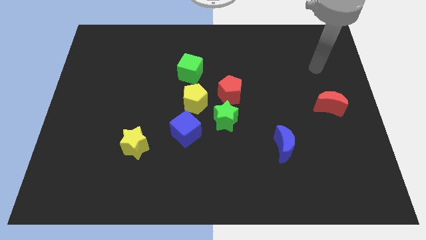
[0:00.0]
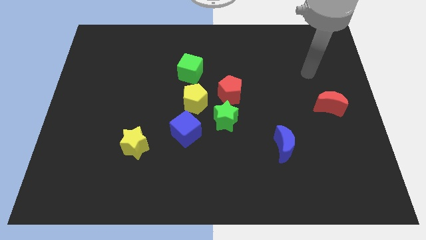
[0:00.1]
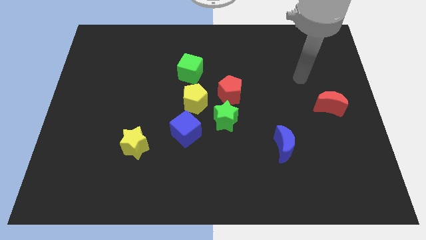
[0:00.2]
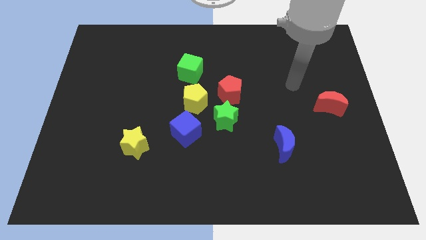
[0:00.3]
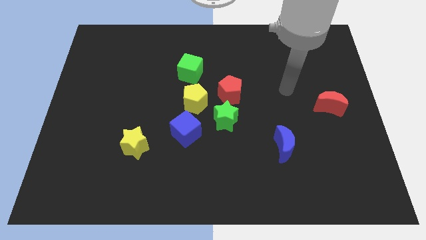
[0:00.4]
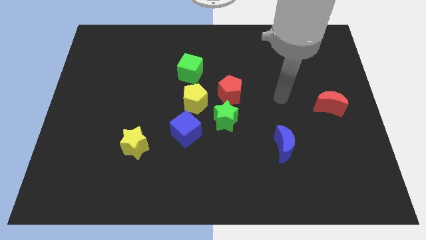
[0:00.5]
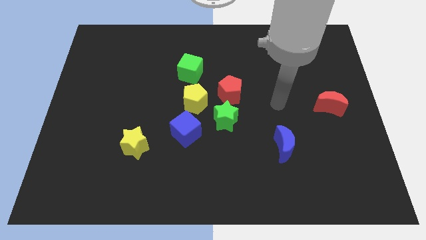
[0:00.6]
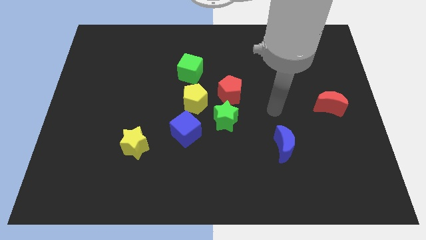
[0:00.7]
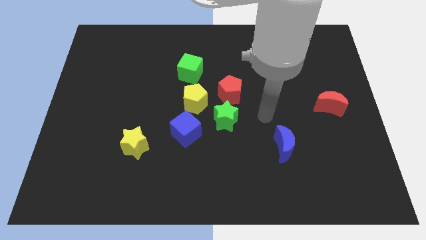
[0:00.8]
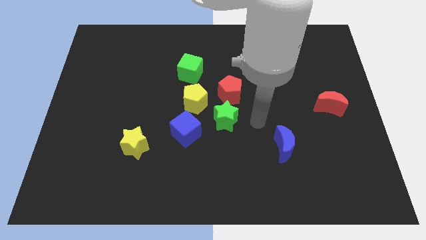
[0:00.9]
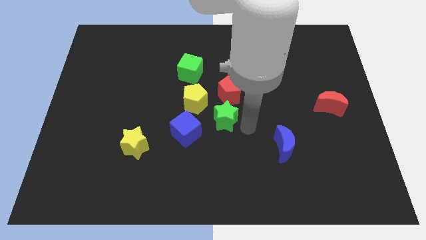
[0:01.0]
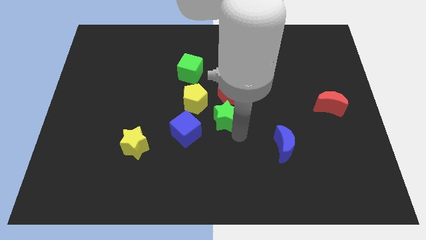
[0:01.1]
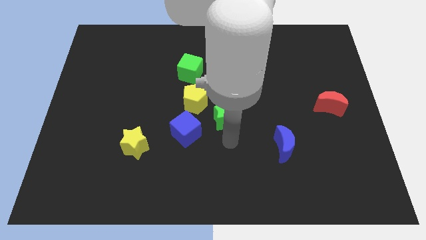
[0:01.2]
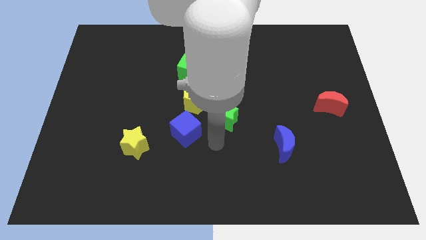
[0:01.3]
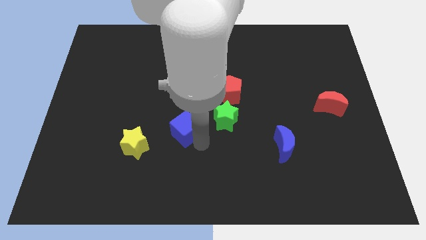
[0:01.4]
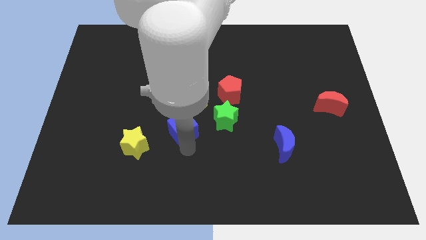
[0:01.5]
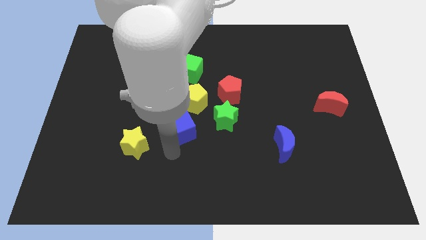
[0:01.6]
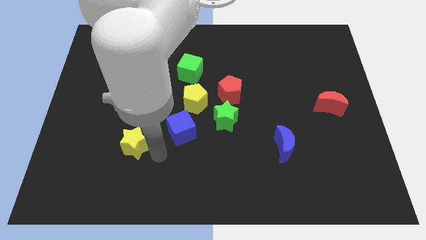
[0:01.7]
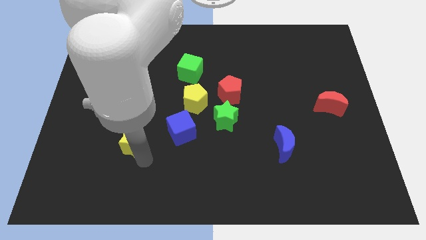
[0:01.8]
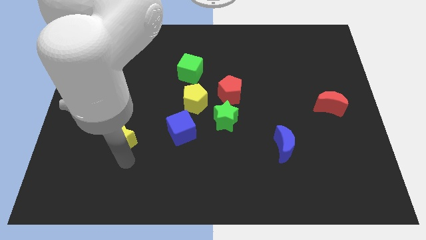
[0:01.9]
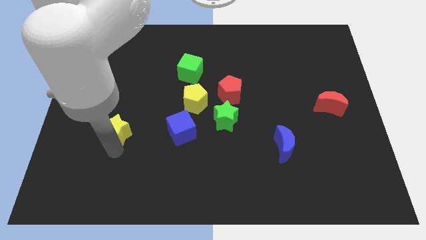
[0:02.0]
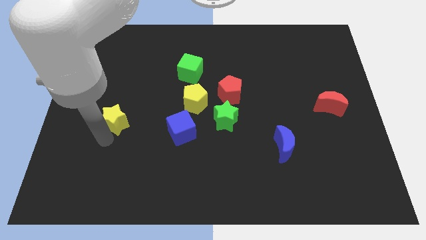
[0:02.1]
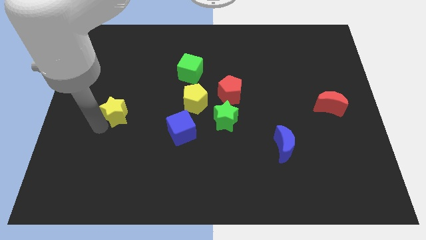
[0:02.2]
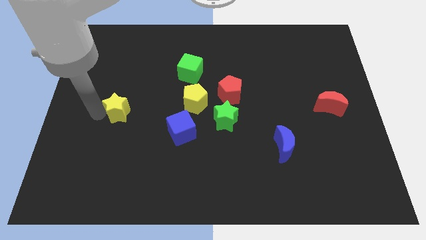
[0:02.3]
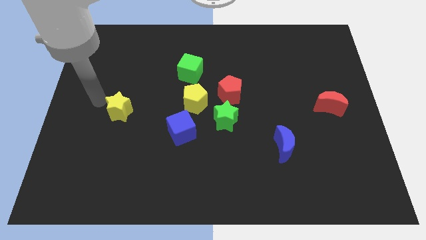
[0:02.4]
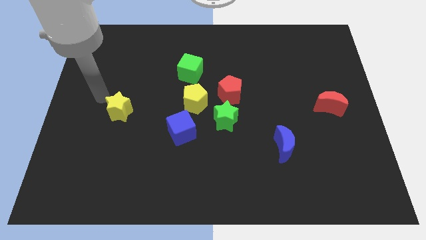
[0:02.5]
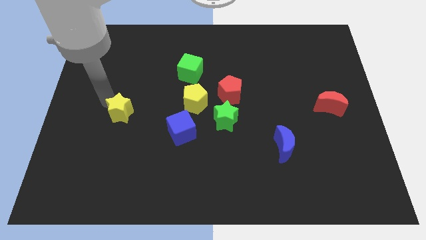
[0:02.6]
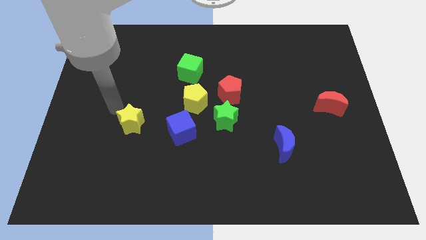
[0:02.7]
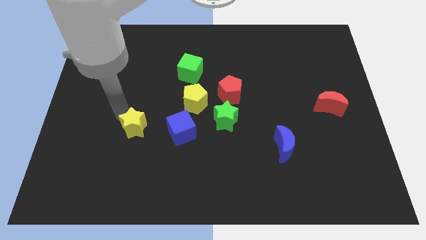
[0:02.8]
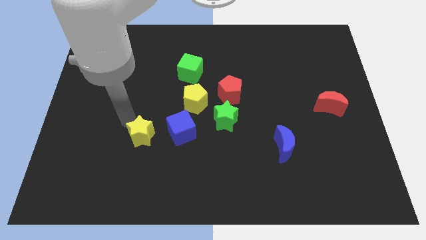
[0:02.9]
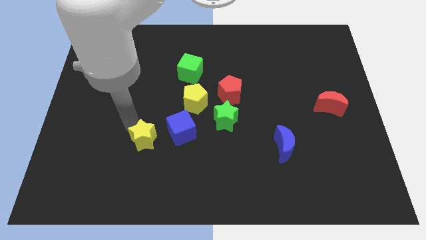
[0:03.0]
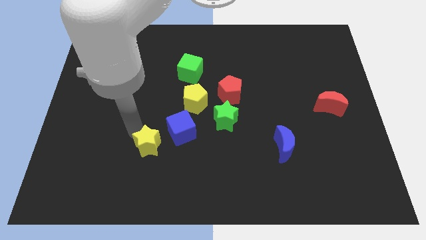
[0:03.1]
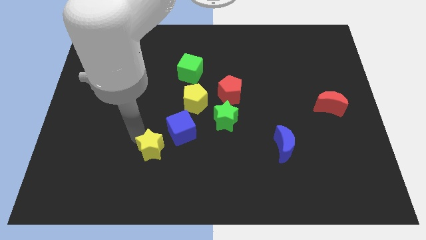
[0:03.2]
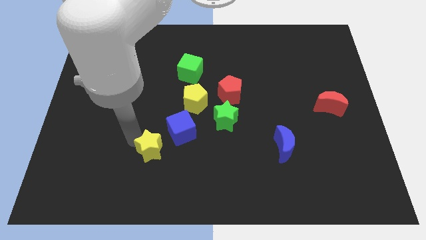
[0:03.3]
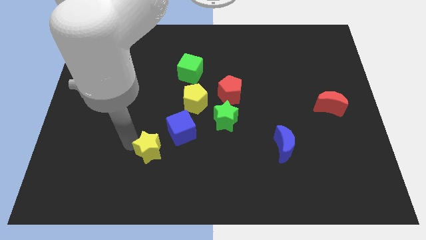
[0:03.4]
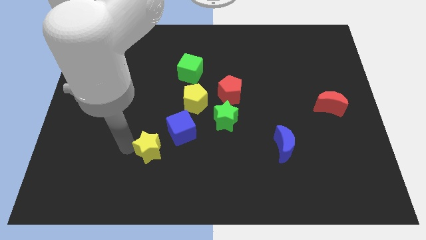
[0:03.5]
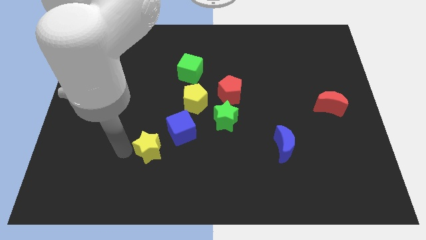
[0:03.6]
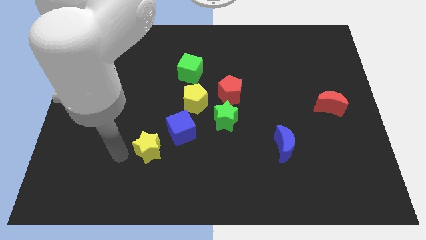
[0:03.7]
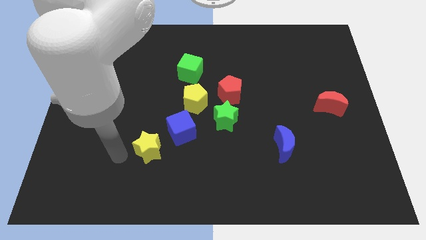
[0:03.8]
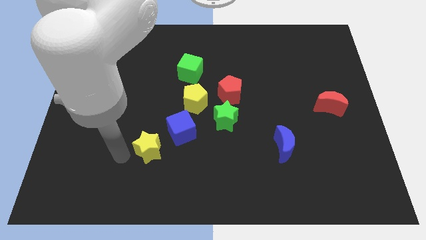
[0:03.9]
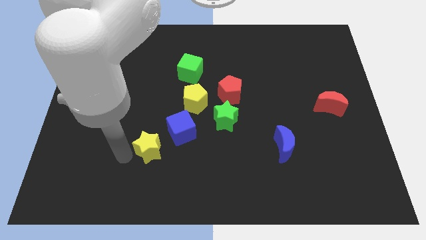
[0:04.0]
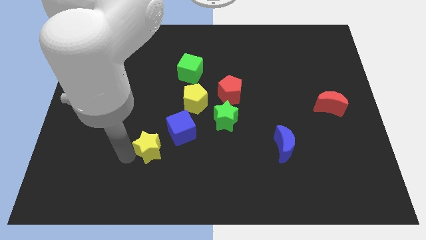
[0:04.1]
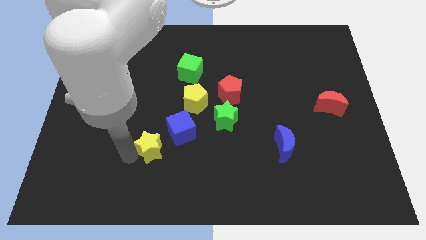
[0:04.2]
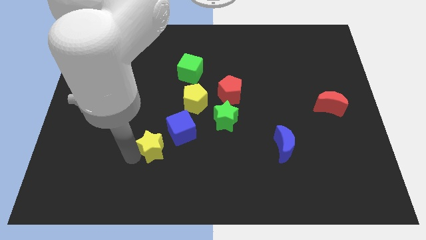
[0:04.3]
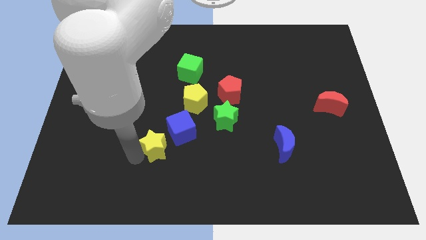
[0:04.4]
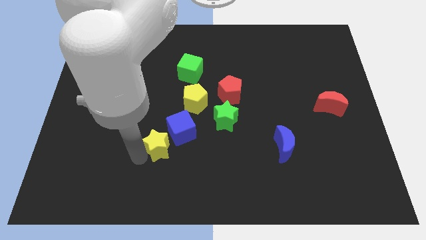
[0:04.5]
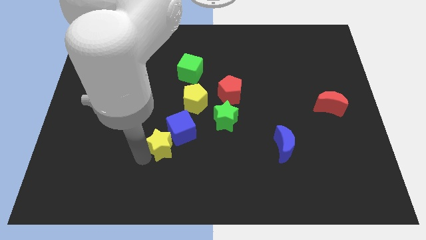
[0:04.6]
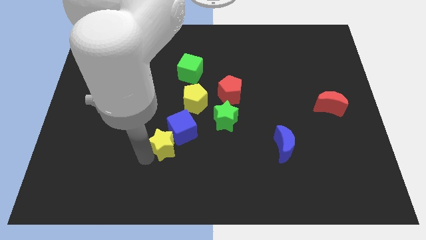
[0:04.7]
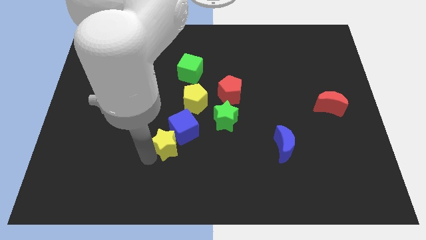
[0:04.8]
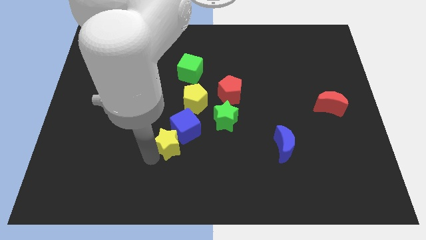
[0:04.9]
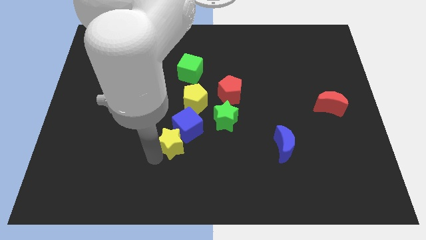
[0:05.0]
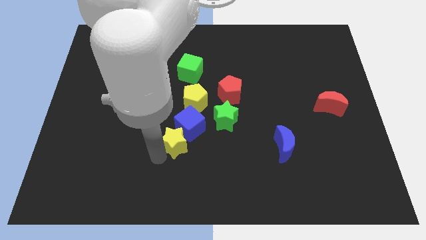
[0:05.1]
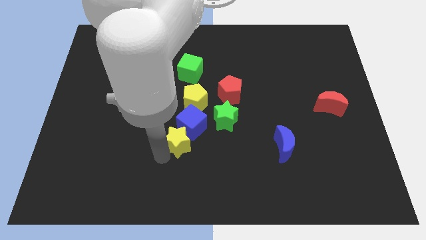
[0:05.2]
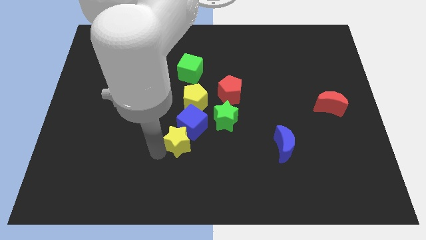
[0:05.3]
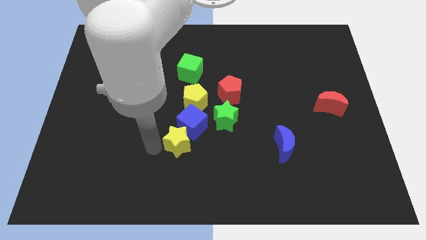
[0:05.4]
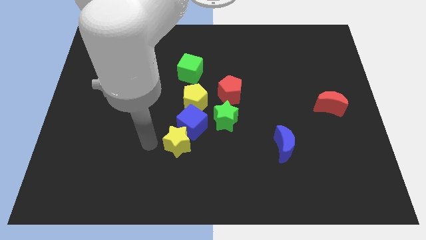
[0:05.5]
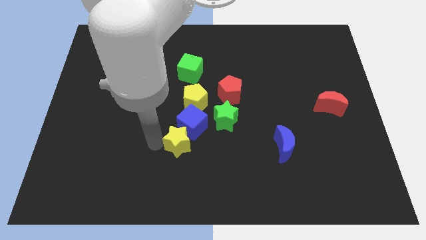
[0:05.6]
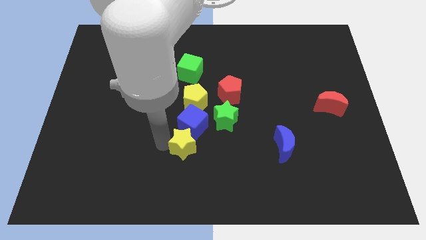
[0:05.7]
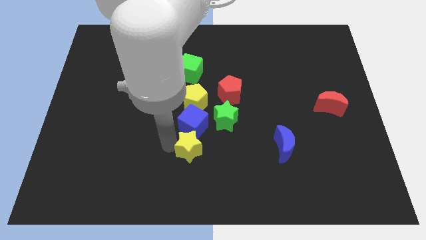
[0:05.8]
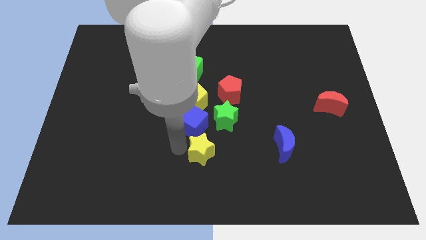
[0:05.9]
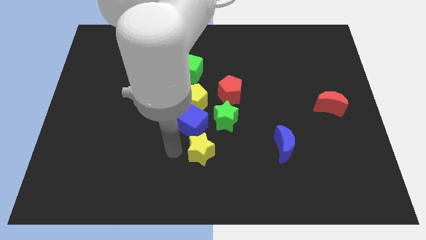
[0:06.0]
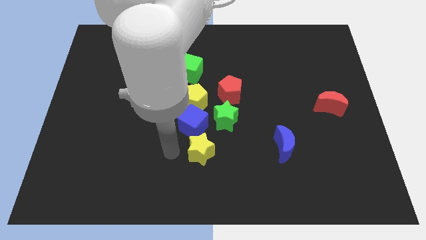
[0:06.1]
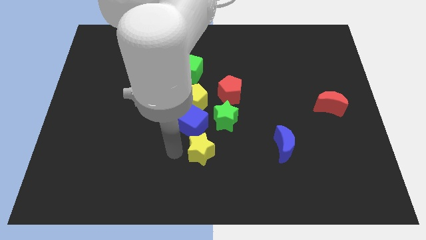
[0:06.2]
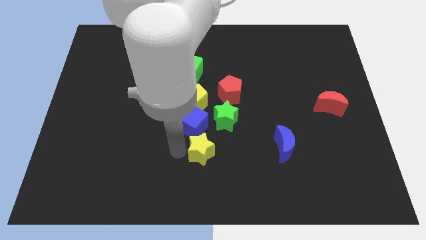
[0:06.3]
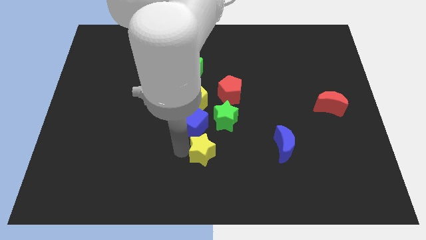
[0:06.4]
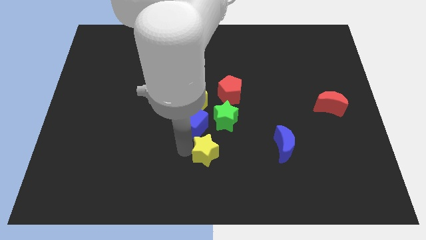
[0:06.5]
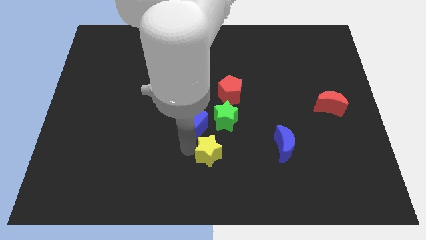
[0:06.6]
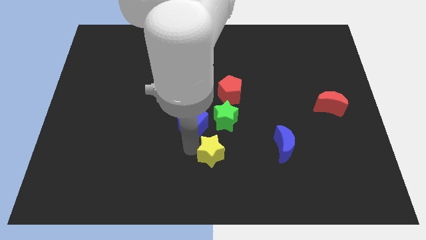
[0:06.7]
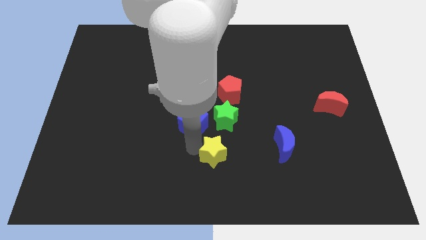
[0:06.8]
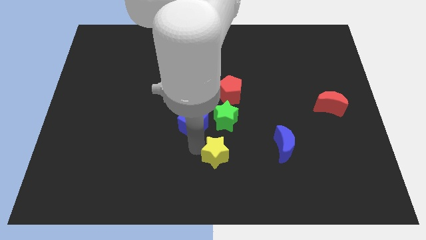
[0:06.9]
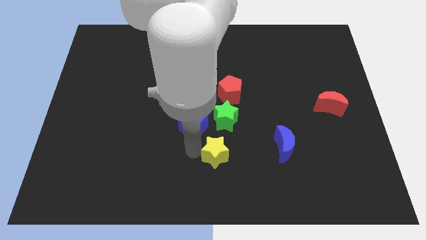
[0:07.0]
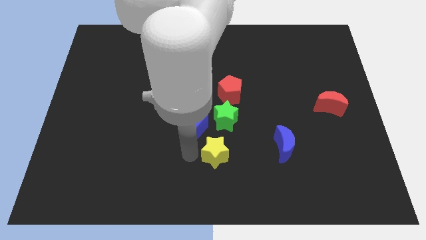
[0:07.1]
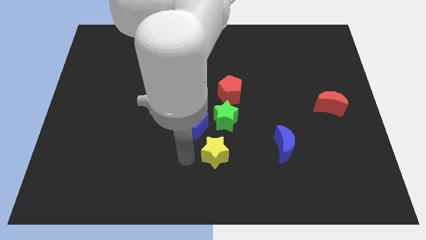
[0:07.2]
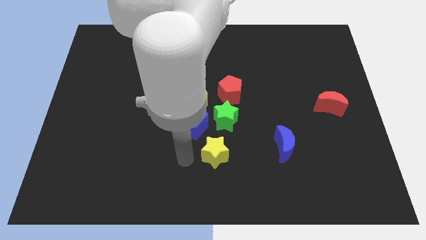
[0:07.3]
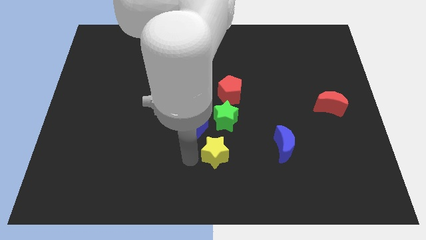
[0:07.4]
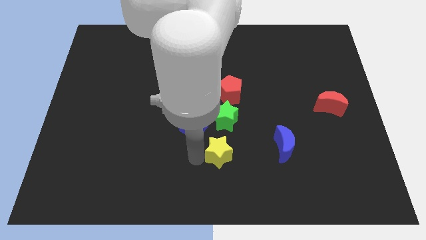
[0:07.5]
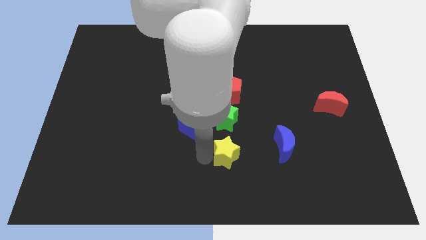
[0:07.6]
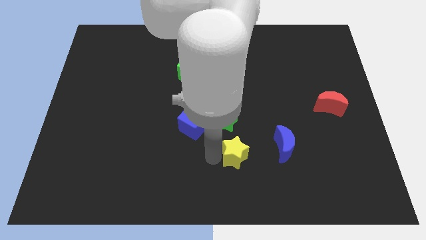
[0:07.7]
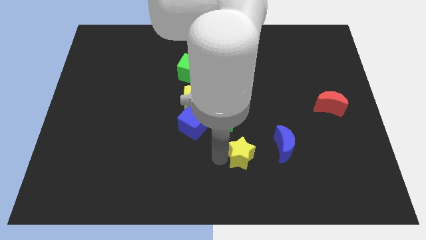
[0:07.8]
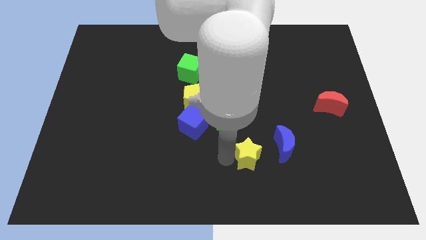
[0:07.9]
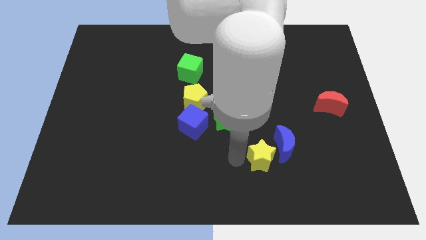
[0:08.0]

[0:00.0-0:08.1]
slide the yellow star to the blue moon
